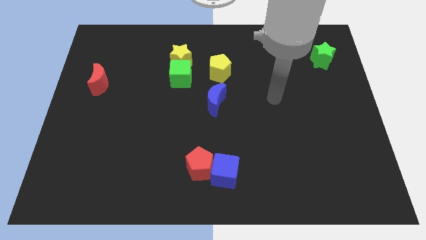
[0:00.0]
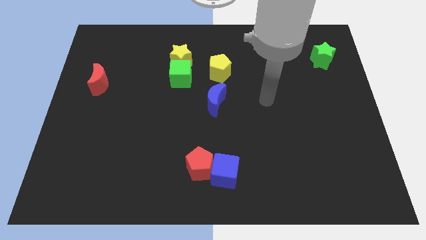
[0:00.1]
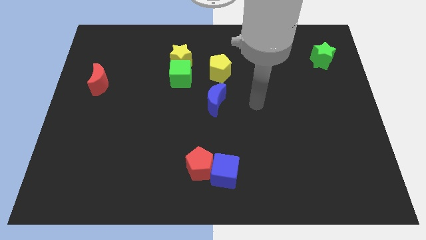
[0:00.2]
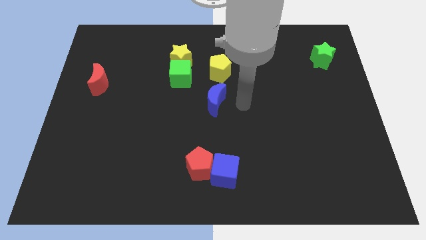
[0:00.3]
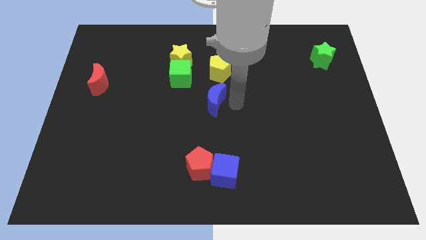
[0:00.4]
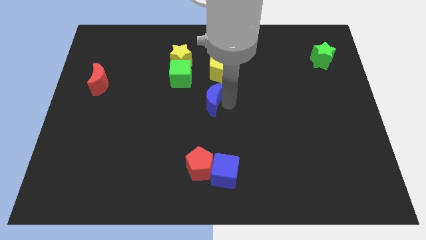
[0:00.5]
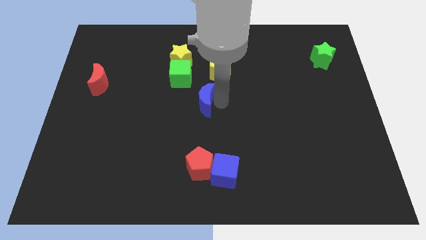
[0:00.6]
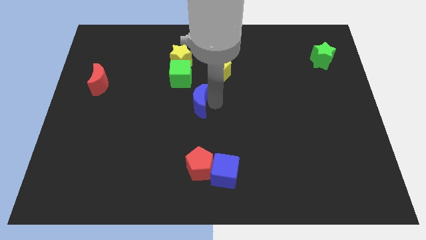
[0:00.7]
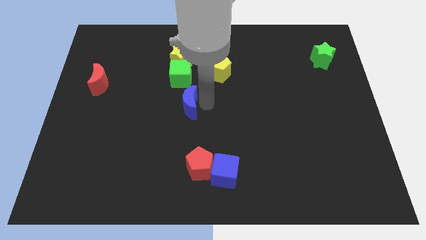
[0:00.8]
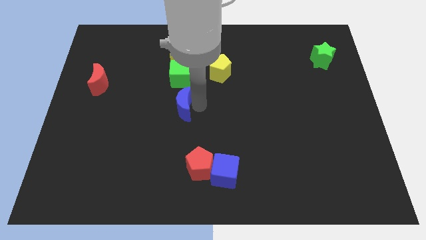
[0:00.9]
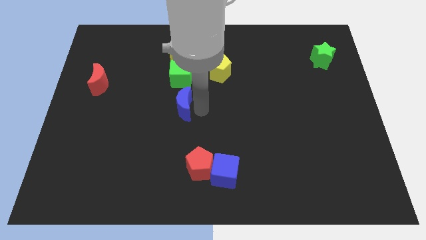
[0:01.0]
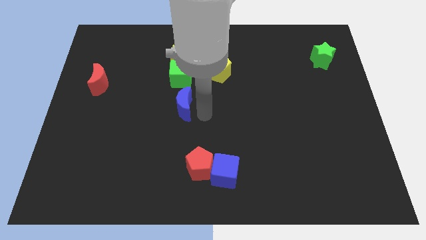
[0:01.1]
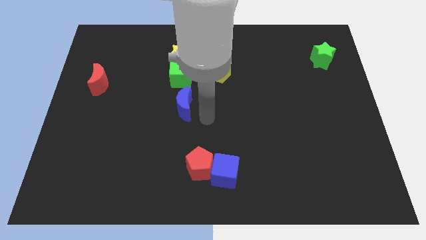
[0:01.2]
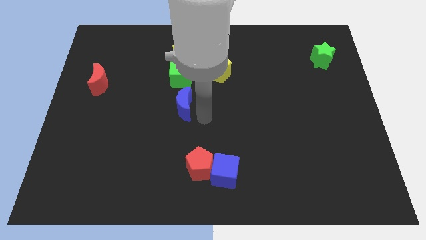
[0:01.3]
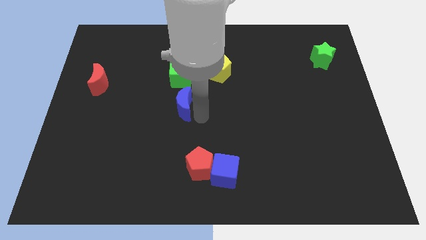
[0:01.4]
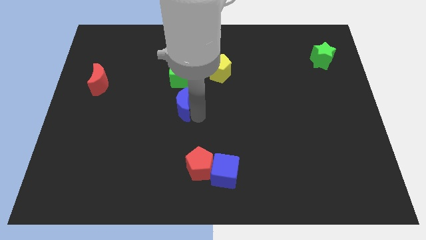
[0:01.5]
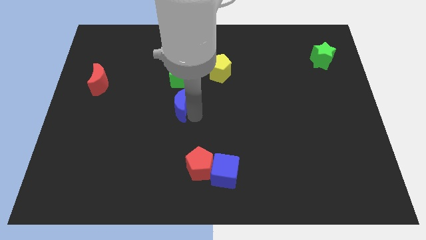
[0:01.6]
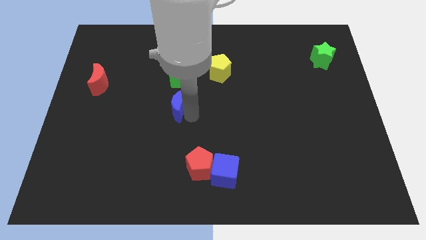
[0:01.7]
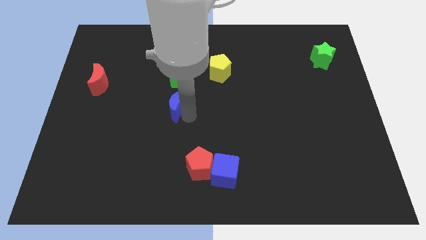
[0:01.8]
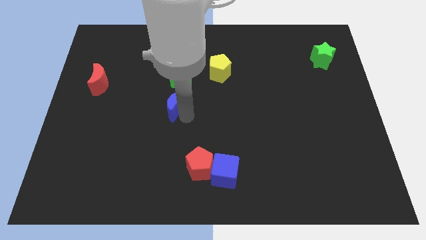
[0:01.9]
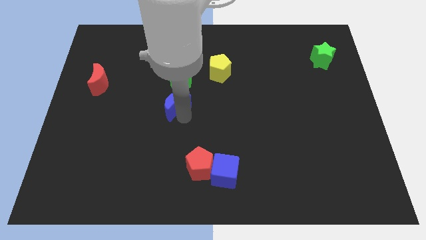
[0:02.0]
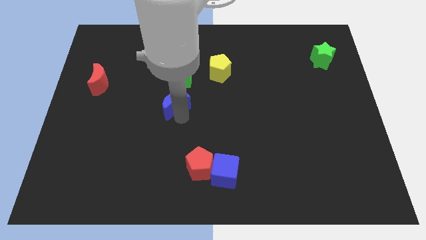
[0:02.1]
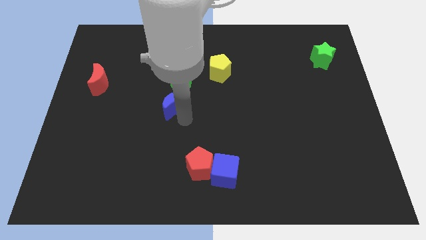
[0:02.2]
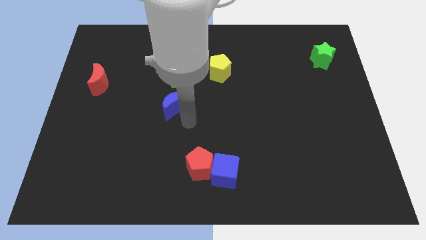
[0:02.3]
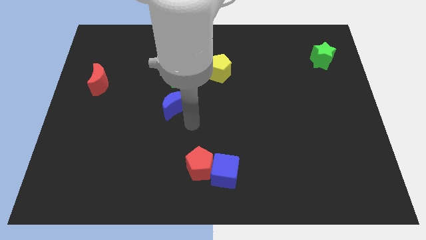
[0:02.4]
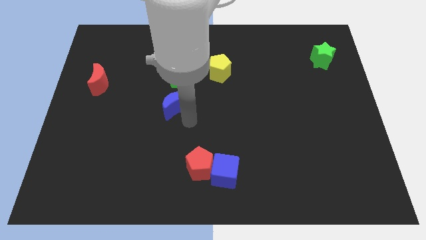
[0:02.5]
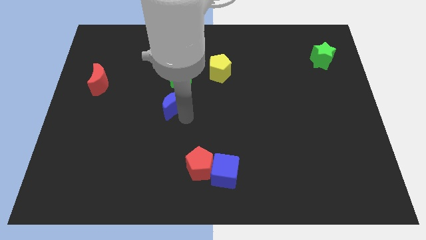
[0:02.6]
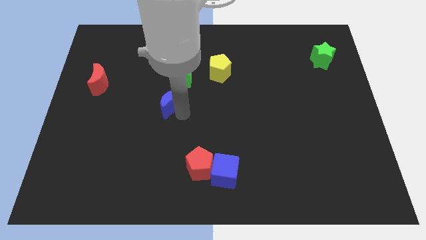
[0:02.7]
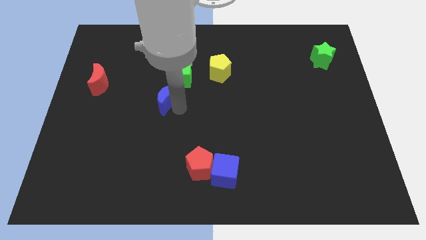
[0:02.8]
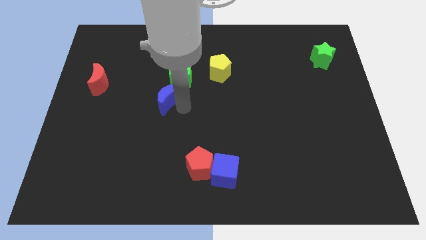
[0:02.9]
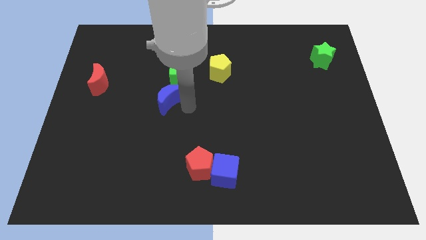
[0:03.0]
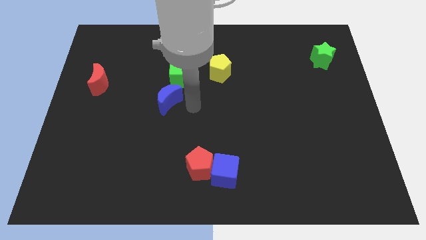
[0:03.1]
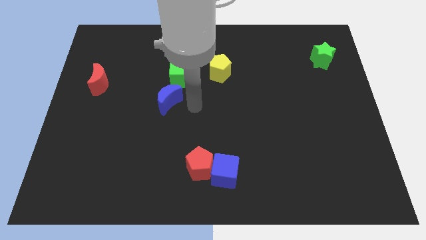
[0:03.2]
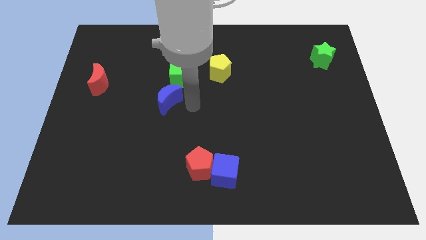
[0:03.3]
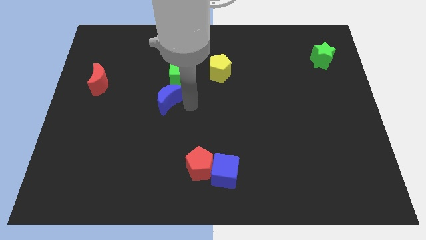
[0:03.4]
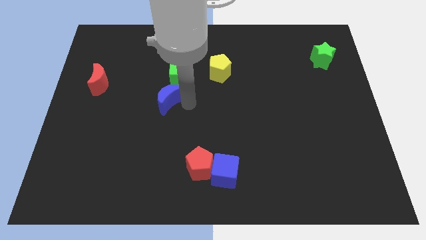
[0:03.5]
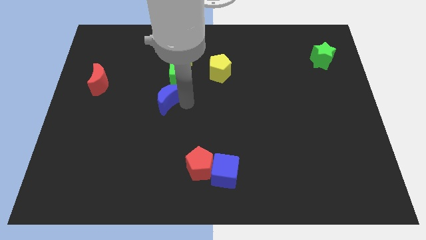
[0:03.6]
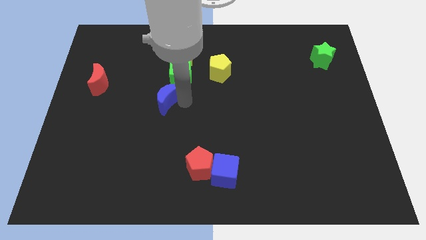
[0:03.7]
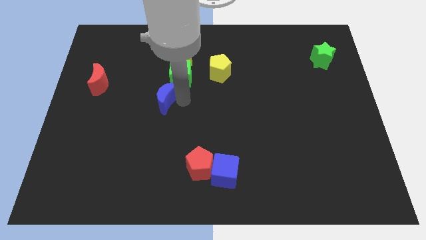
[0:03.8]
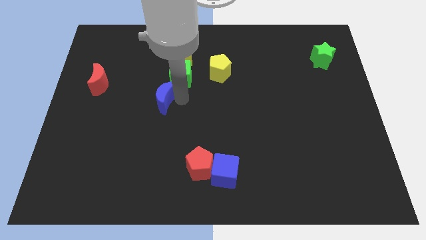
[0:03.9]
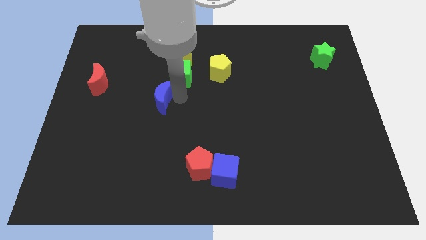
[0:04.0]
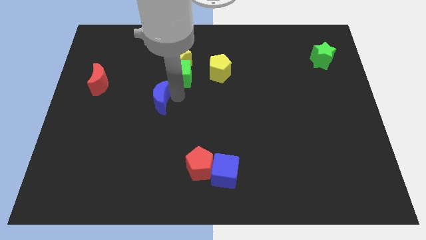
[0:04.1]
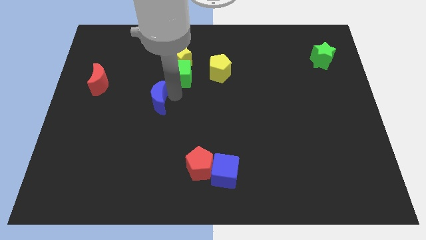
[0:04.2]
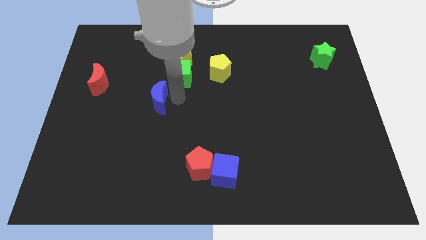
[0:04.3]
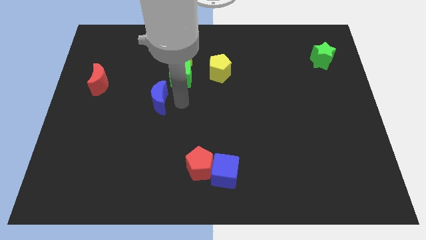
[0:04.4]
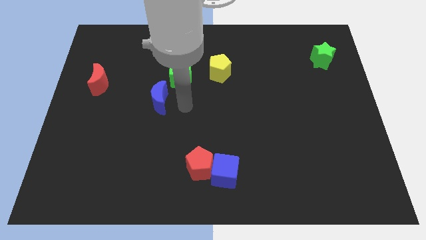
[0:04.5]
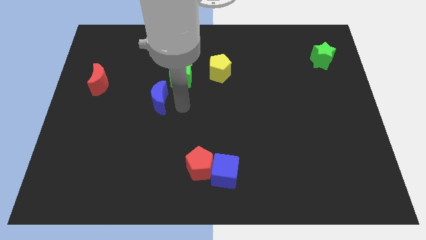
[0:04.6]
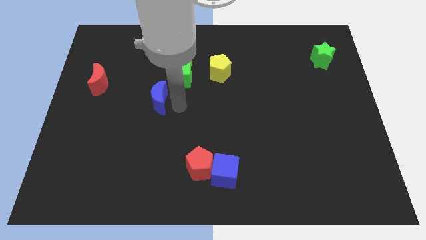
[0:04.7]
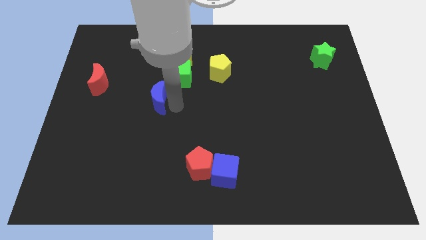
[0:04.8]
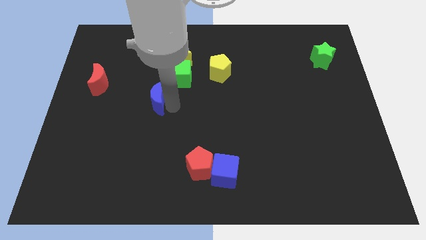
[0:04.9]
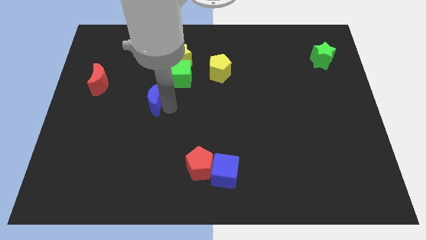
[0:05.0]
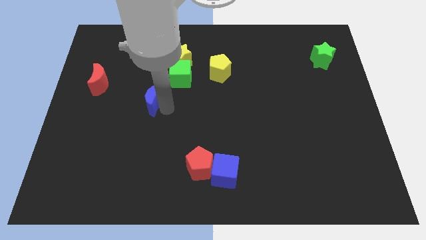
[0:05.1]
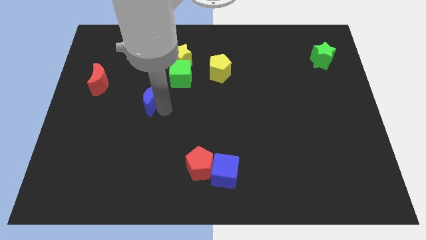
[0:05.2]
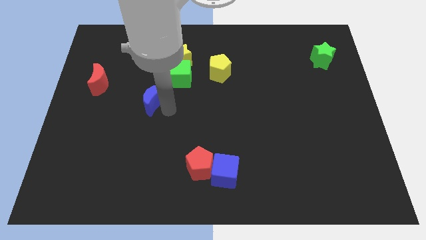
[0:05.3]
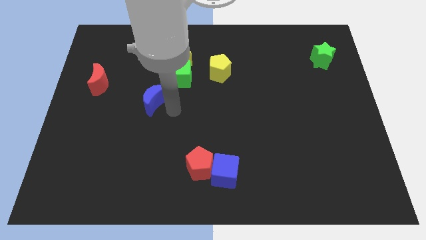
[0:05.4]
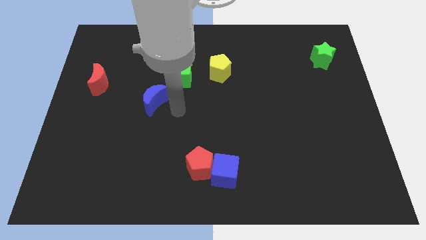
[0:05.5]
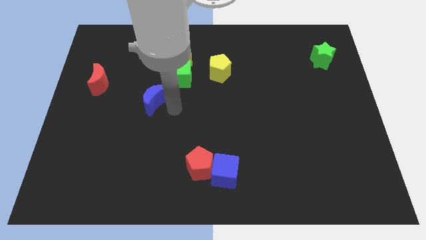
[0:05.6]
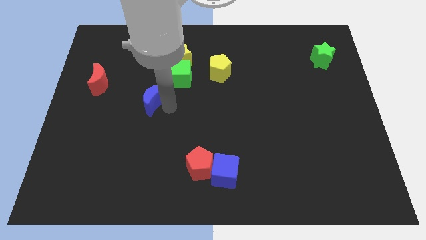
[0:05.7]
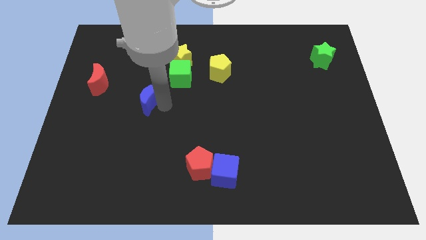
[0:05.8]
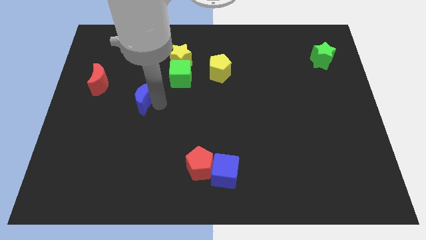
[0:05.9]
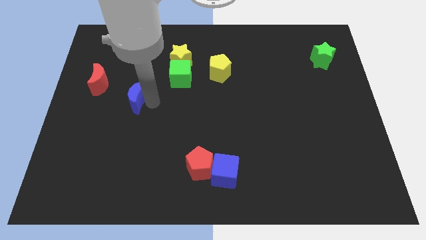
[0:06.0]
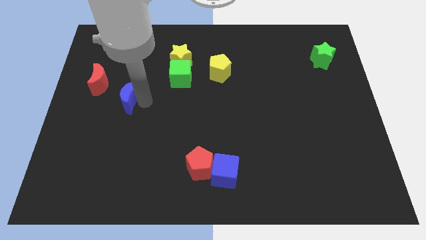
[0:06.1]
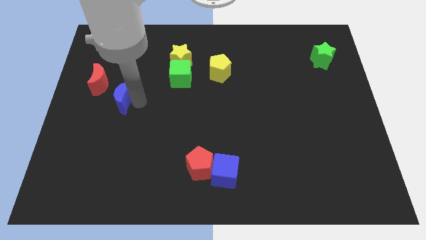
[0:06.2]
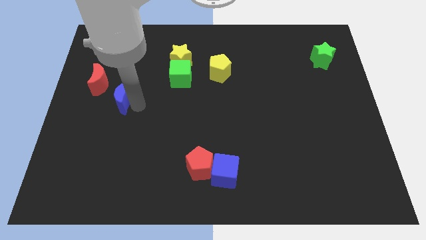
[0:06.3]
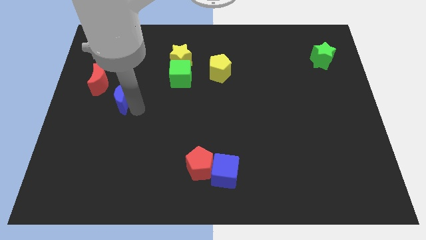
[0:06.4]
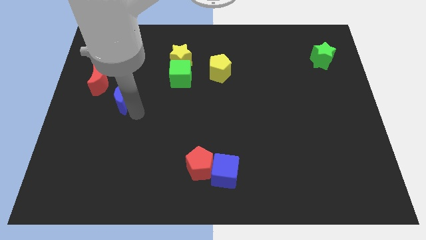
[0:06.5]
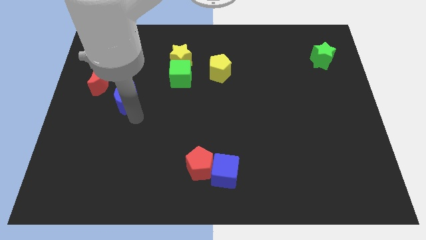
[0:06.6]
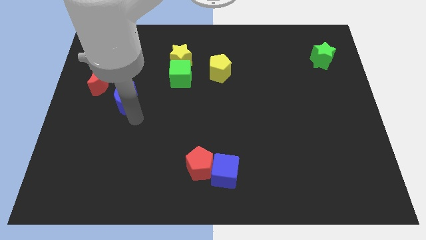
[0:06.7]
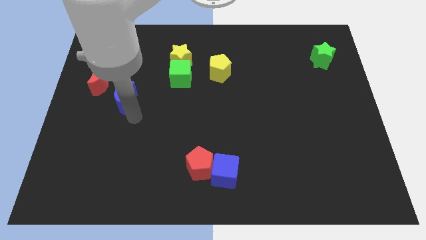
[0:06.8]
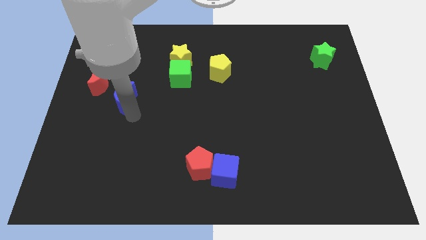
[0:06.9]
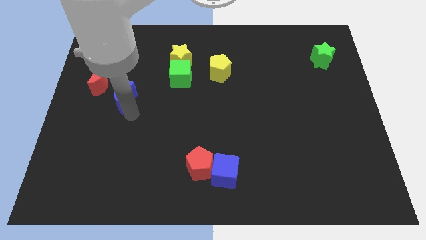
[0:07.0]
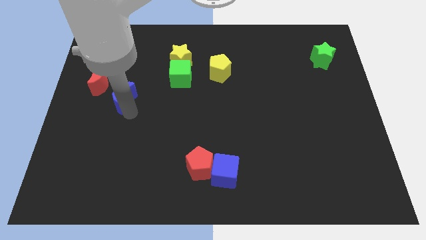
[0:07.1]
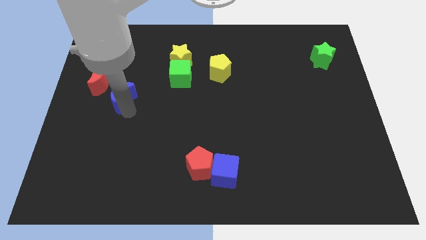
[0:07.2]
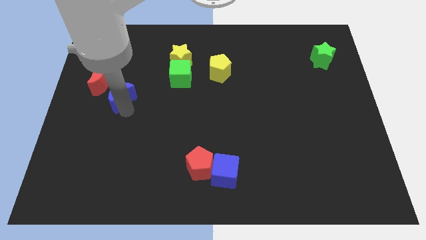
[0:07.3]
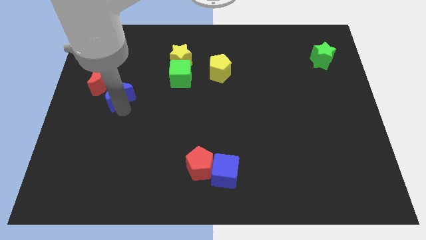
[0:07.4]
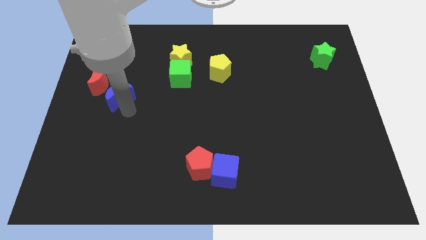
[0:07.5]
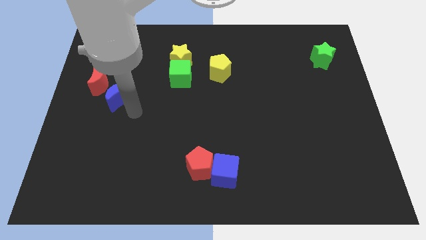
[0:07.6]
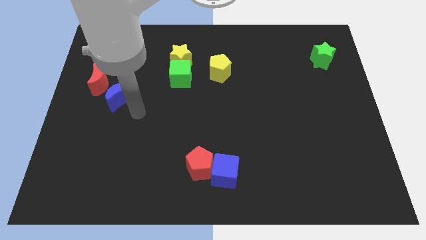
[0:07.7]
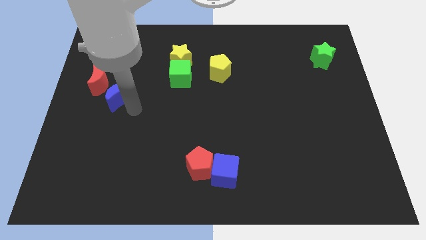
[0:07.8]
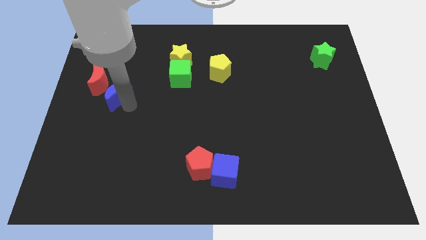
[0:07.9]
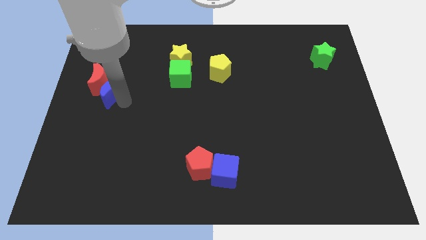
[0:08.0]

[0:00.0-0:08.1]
move the blue moon towards the red moon
